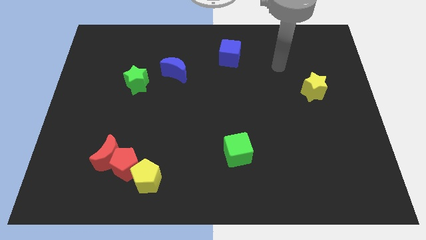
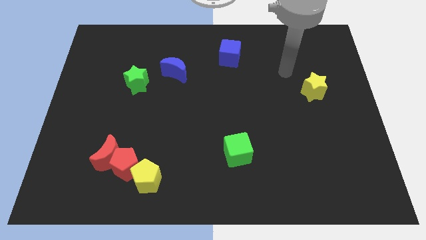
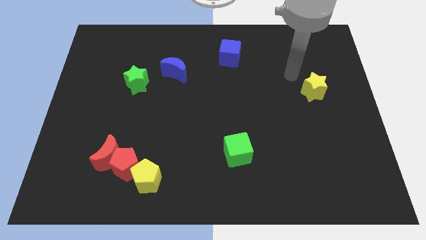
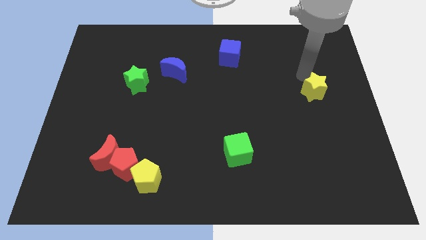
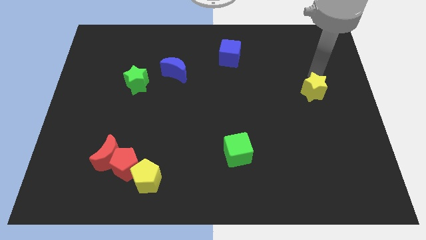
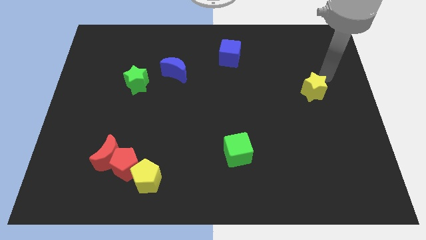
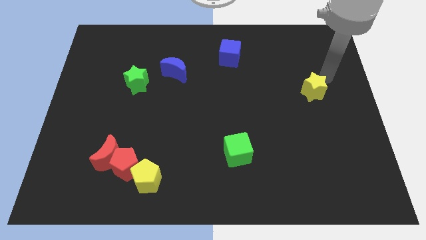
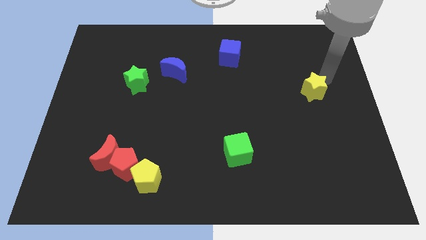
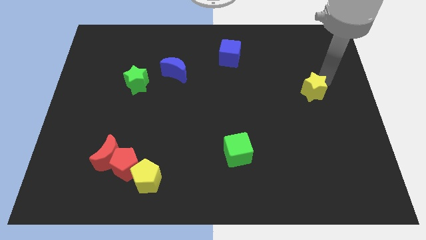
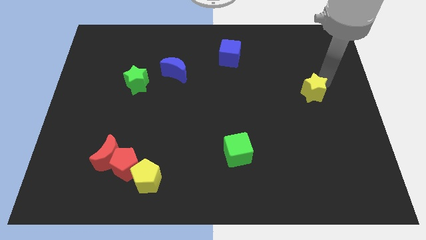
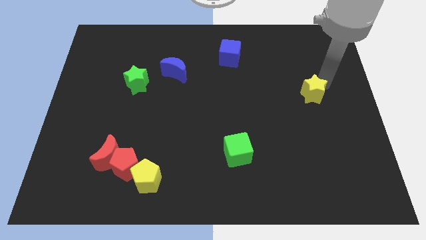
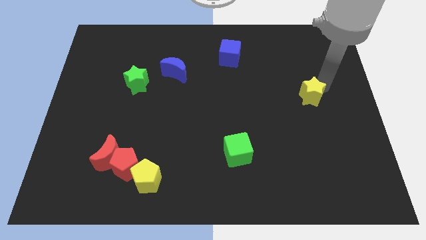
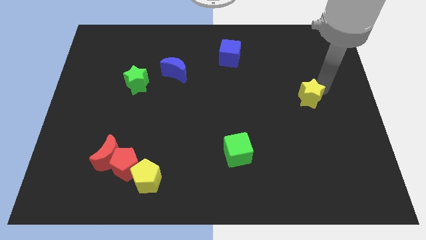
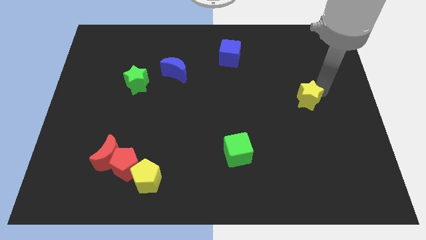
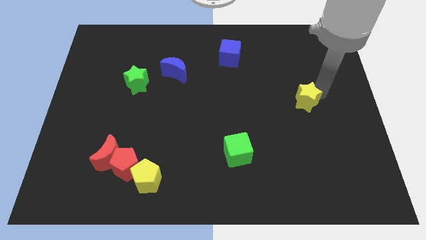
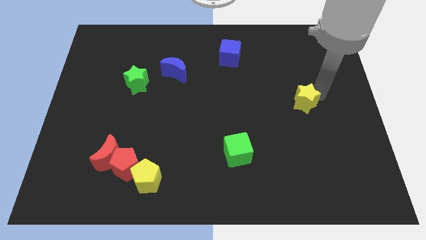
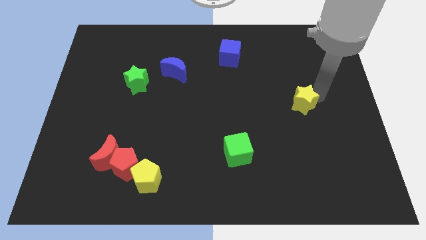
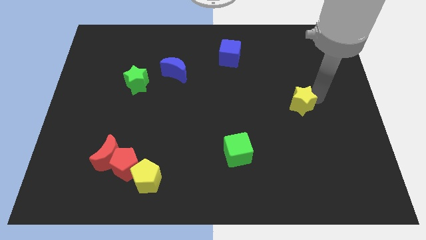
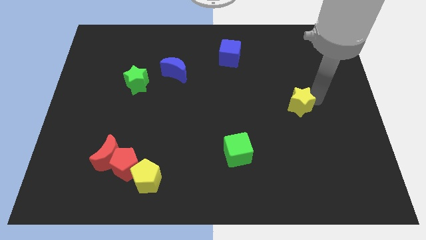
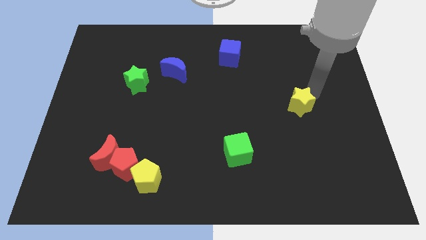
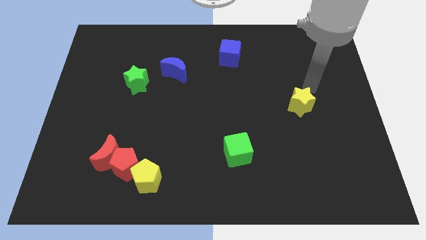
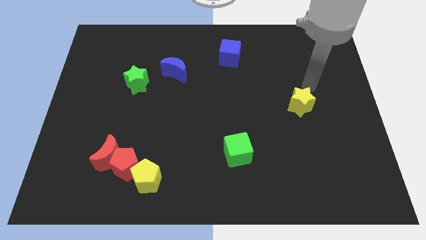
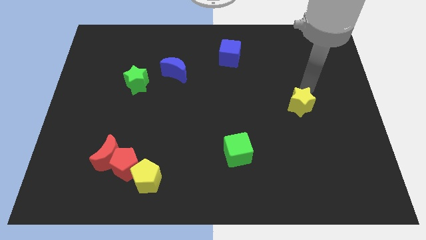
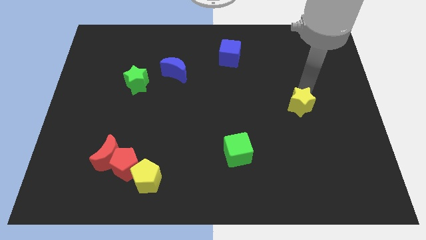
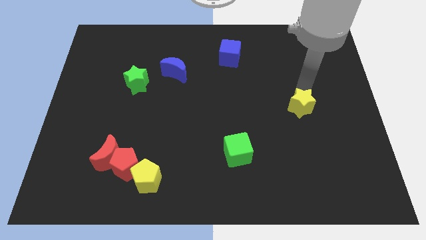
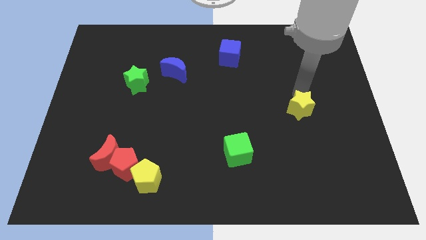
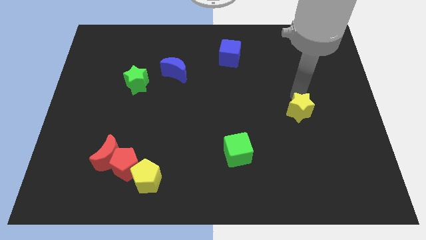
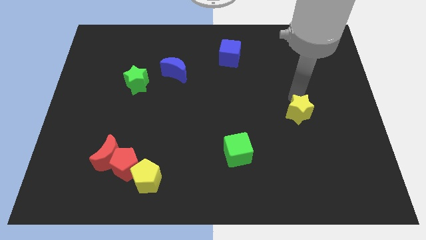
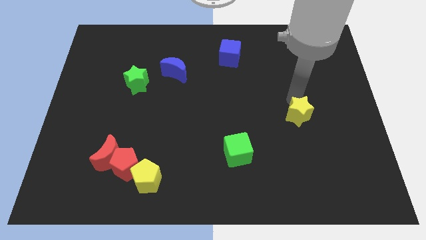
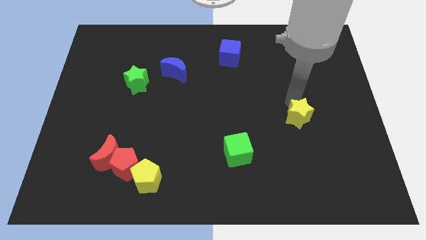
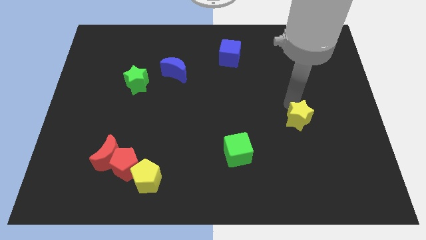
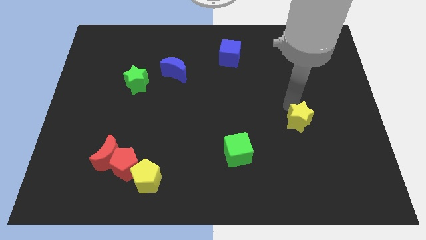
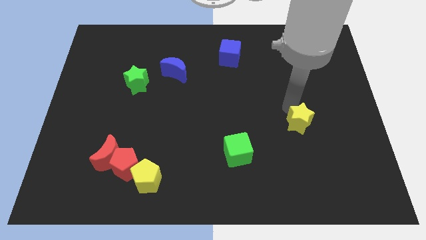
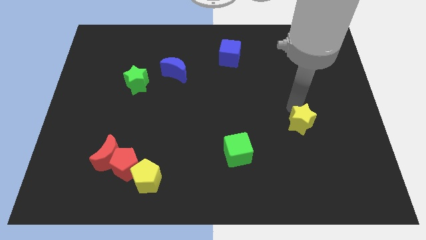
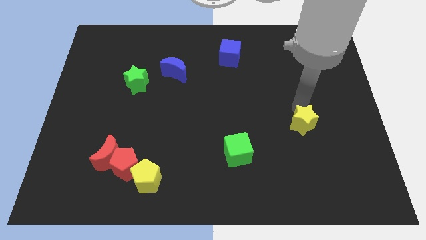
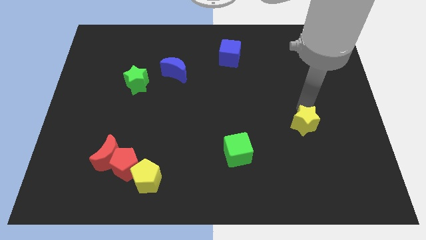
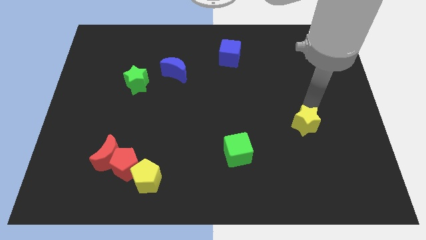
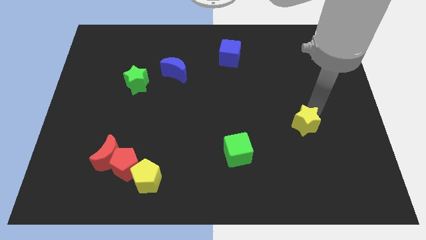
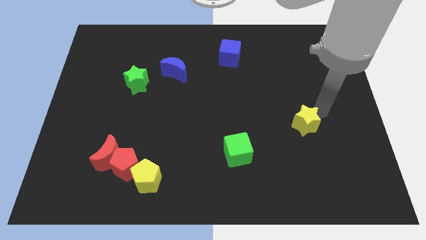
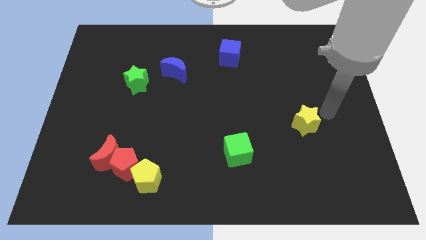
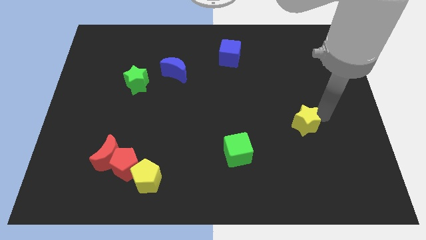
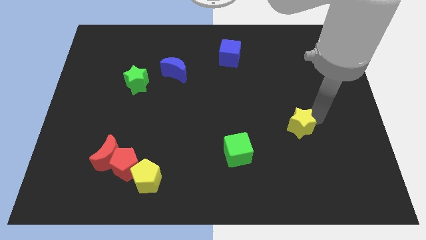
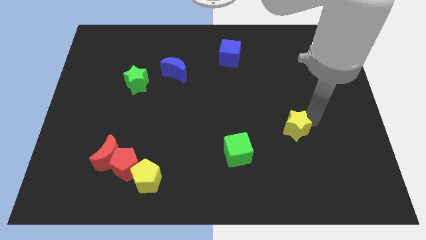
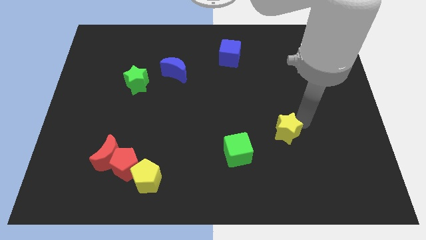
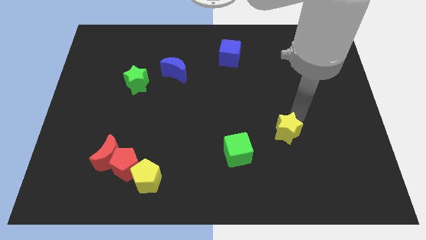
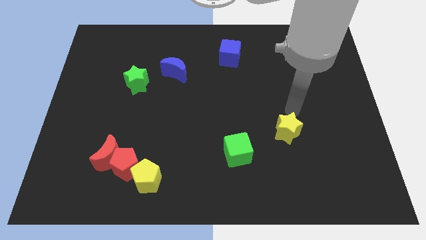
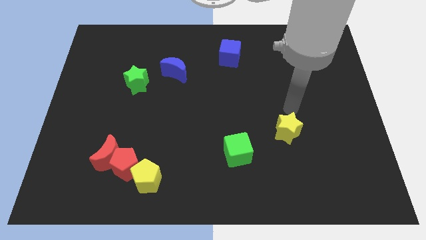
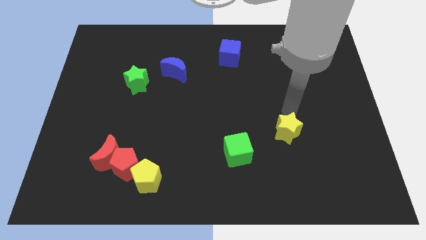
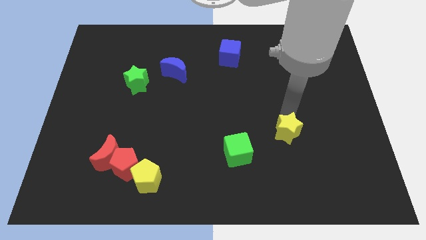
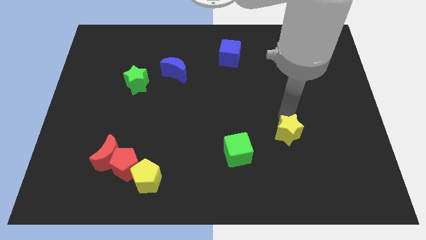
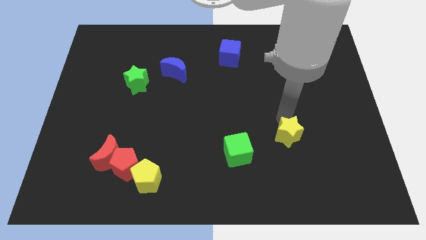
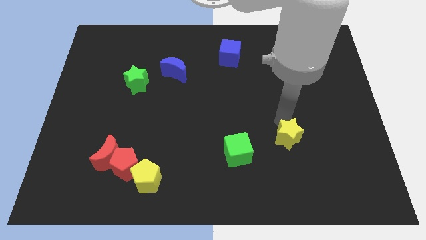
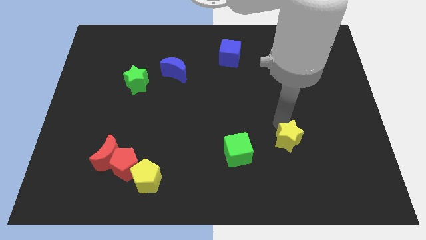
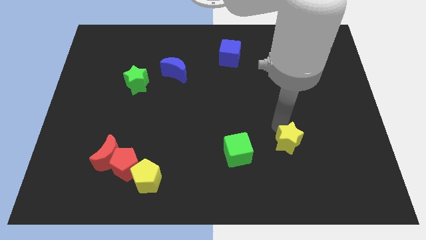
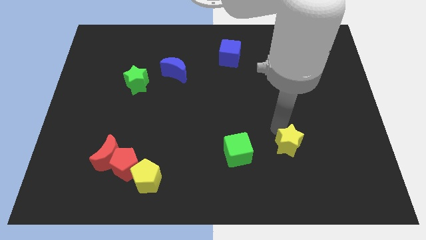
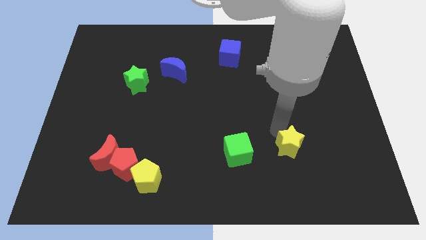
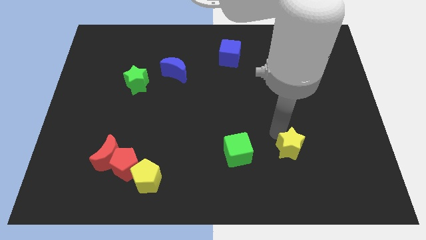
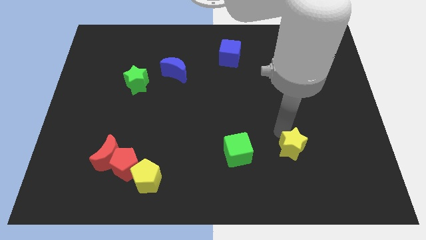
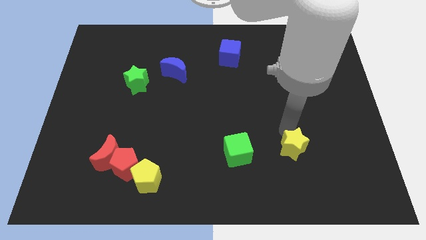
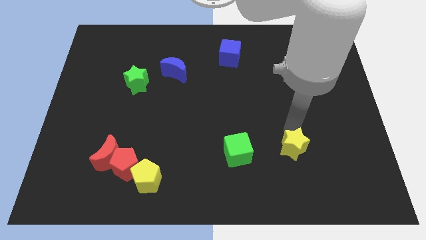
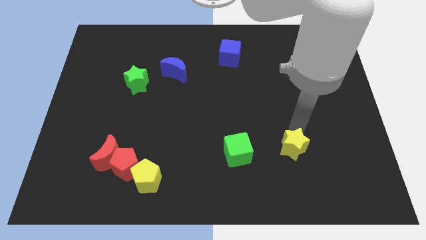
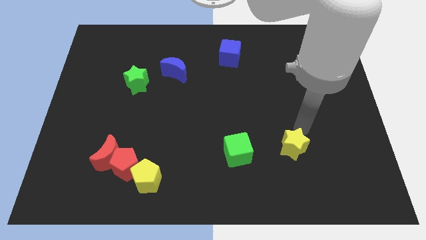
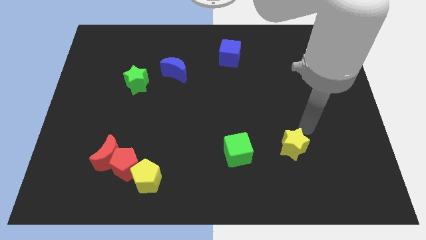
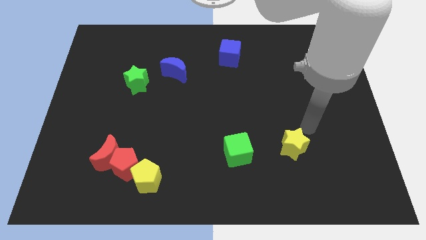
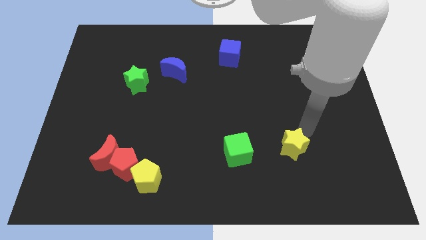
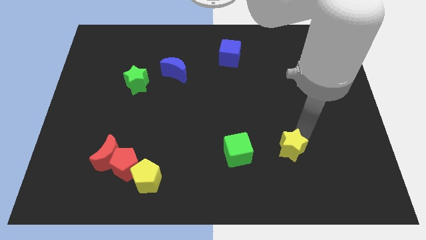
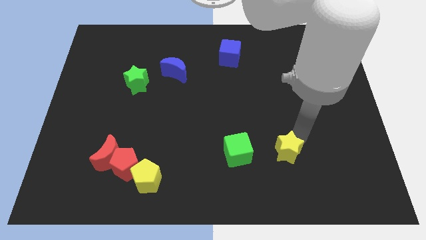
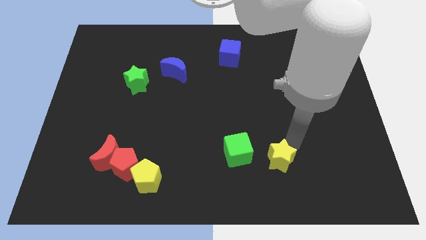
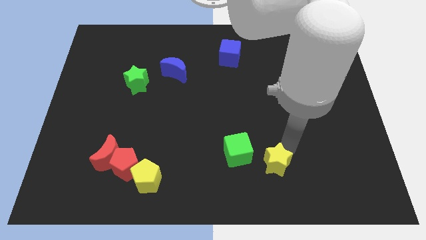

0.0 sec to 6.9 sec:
slide the yellow star to the bottom right side of the green cube

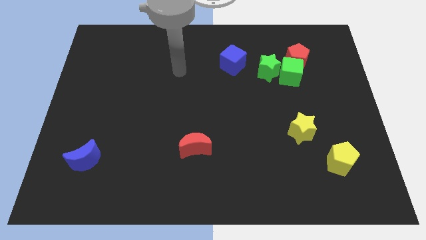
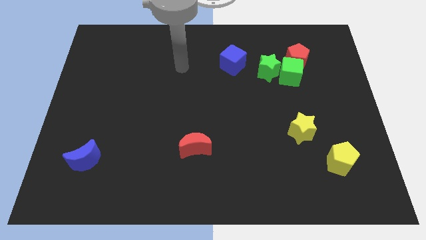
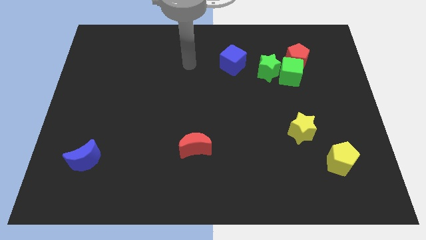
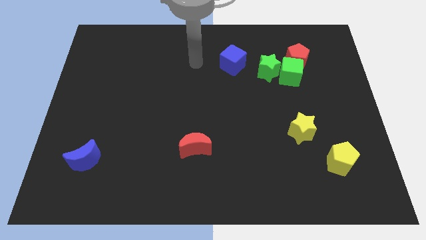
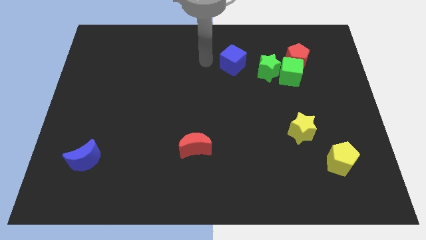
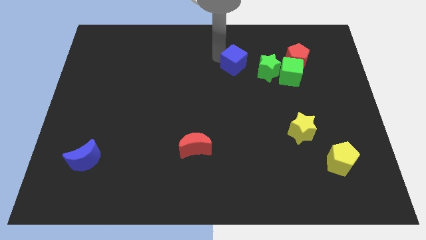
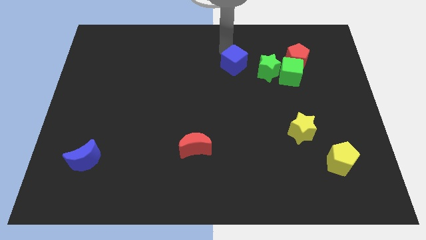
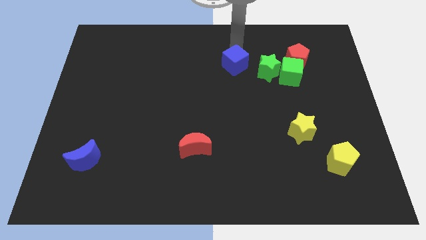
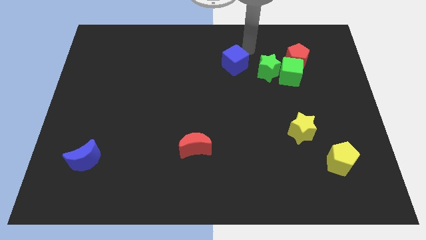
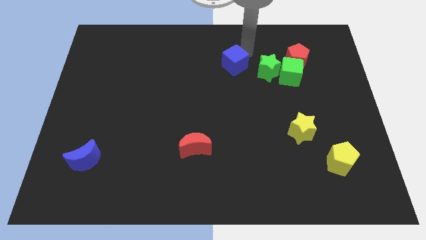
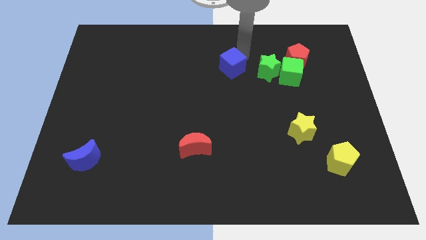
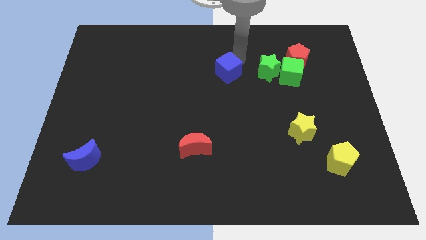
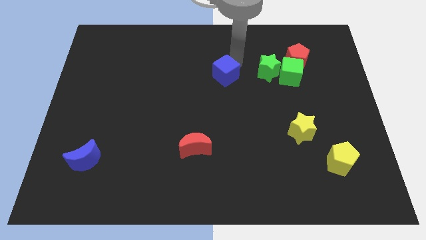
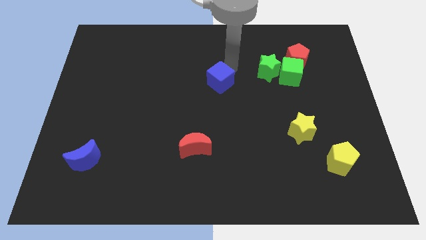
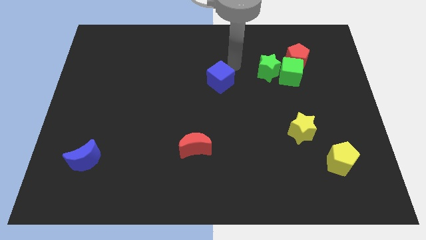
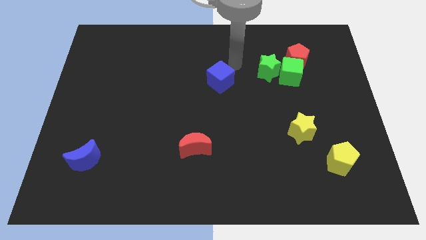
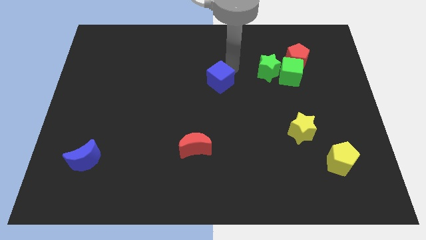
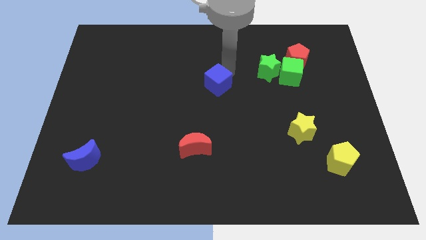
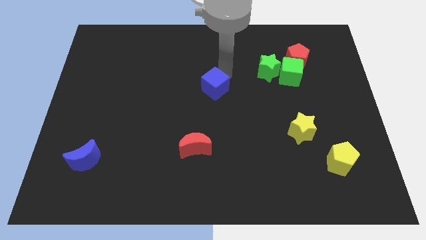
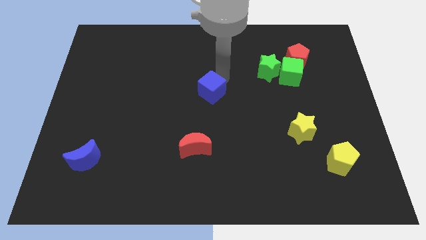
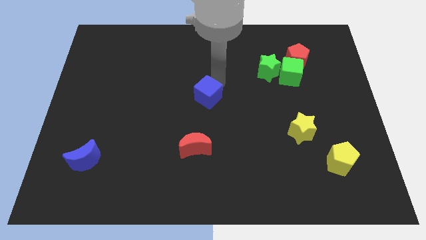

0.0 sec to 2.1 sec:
move the blue cube to the top side of the red moon
